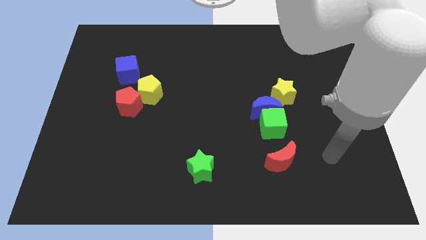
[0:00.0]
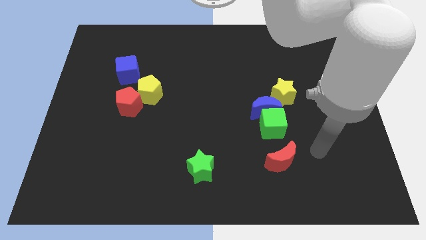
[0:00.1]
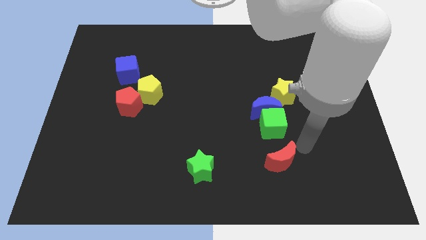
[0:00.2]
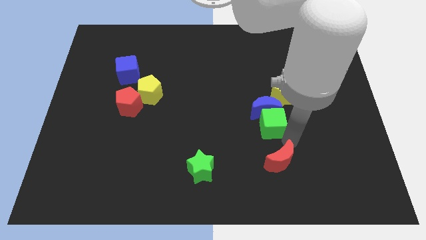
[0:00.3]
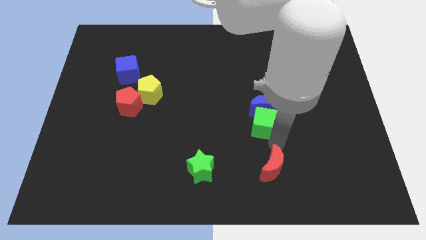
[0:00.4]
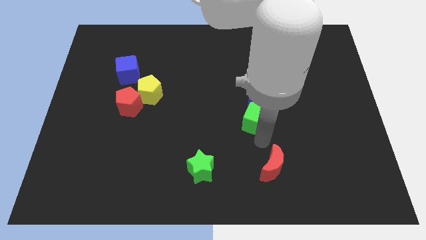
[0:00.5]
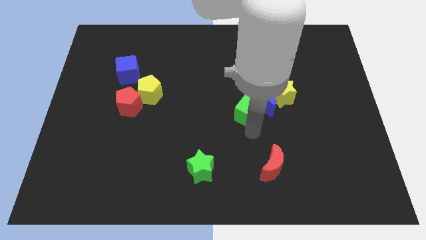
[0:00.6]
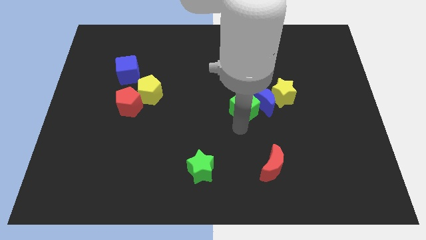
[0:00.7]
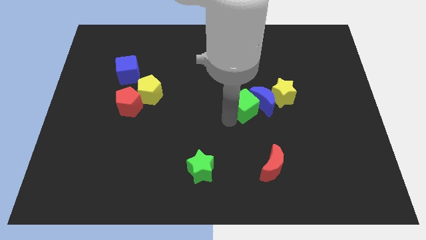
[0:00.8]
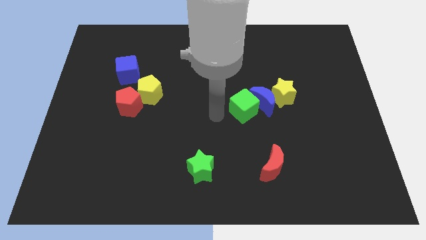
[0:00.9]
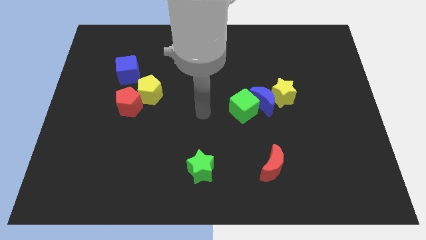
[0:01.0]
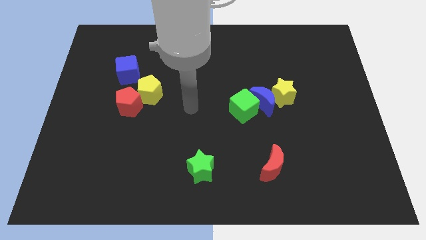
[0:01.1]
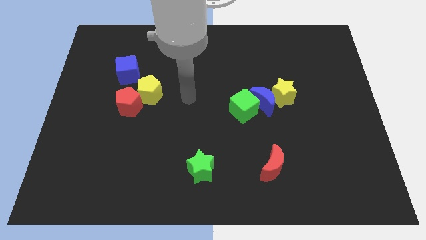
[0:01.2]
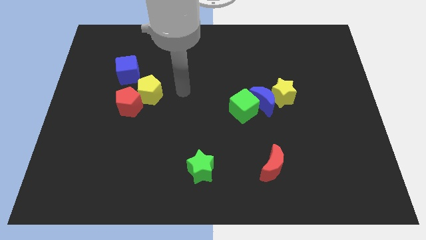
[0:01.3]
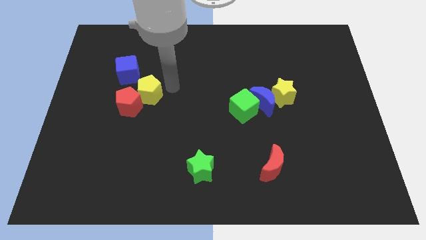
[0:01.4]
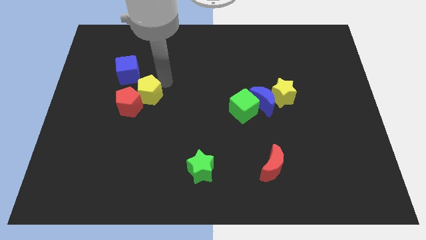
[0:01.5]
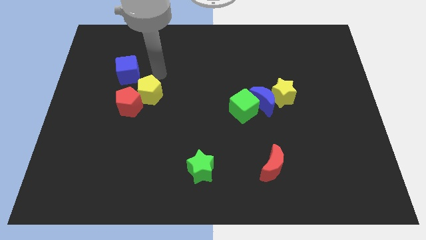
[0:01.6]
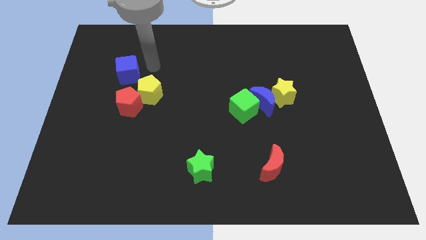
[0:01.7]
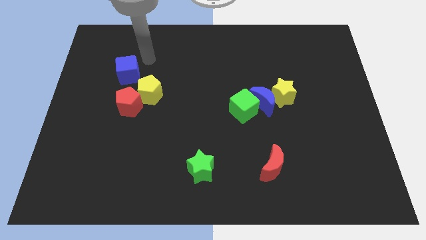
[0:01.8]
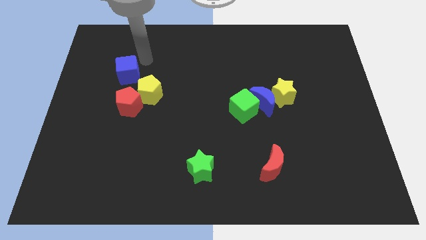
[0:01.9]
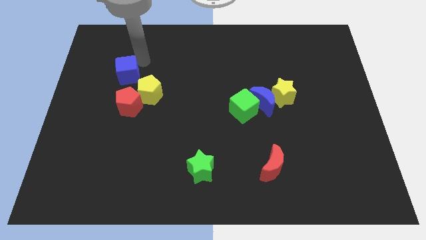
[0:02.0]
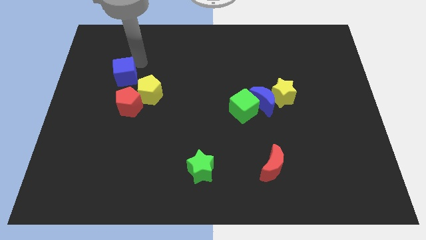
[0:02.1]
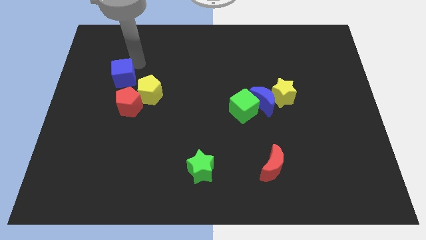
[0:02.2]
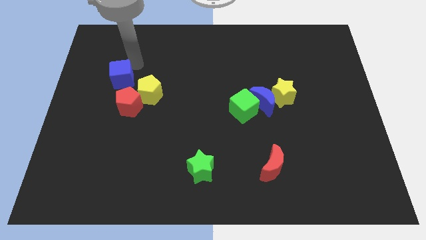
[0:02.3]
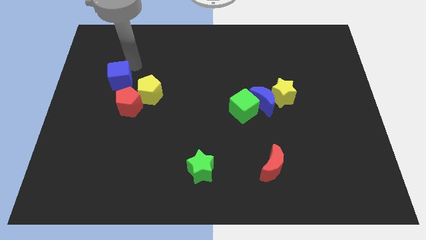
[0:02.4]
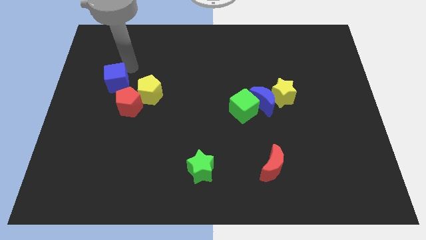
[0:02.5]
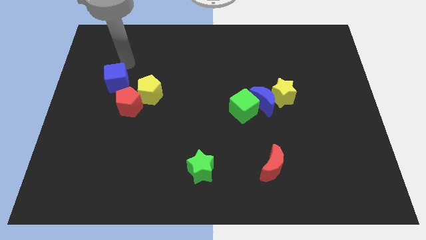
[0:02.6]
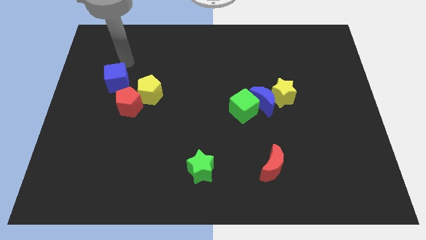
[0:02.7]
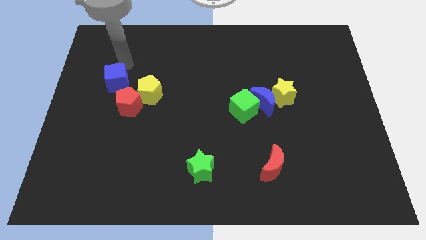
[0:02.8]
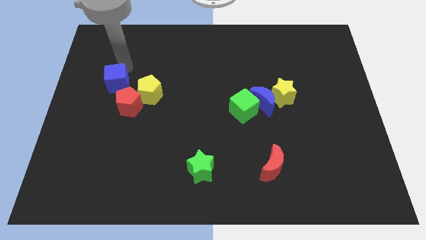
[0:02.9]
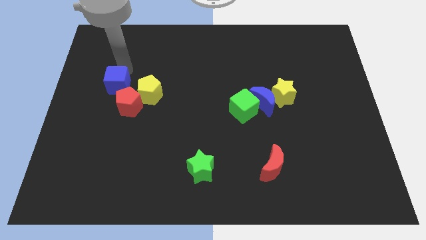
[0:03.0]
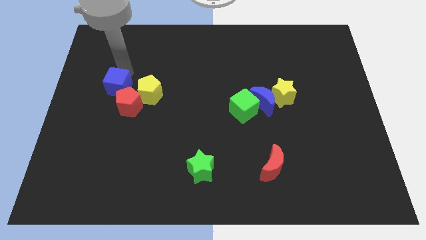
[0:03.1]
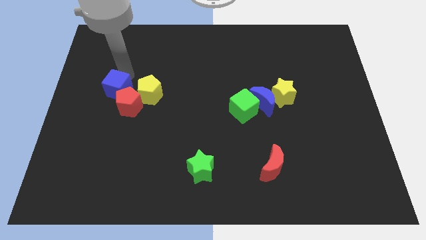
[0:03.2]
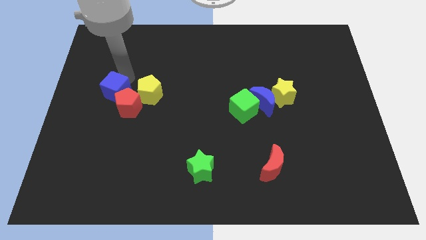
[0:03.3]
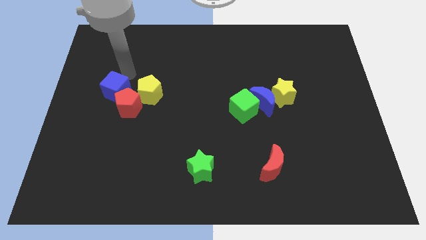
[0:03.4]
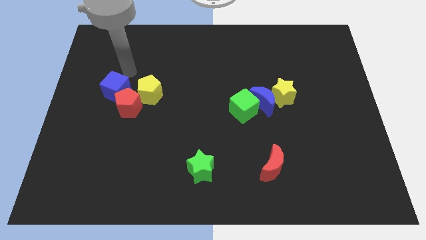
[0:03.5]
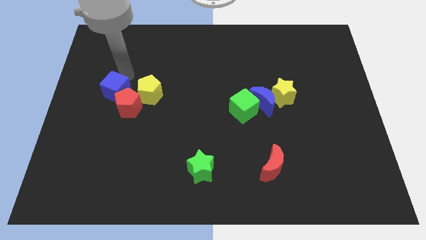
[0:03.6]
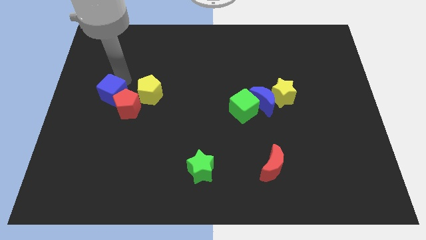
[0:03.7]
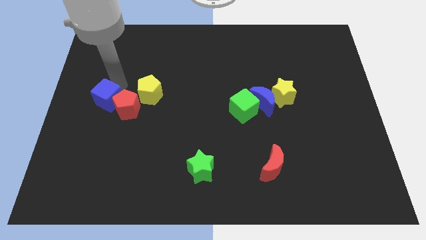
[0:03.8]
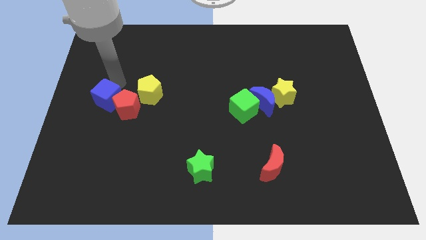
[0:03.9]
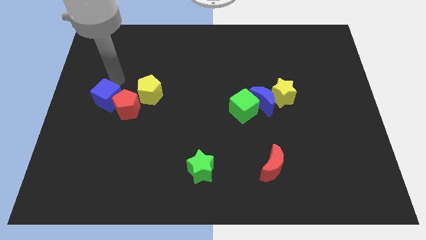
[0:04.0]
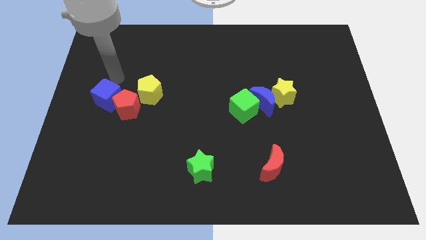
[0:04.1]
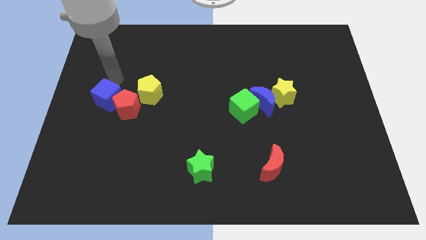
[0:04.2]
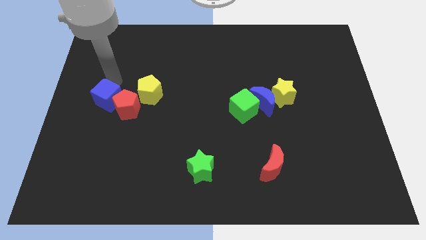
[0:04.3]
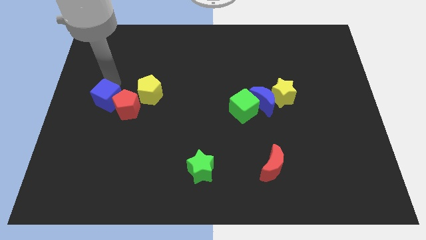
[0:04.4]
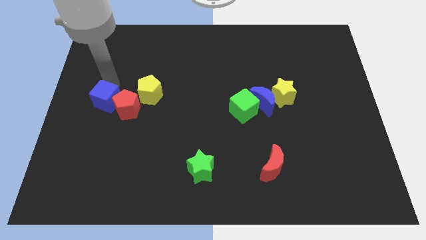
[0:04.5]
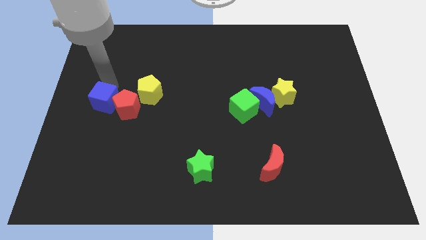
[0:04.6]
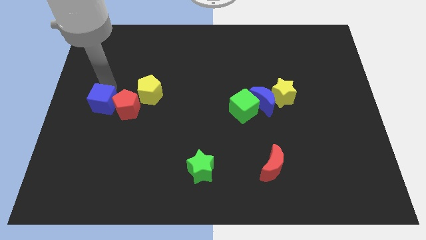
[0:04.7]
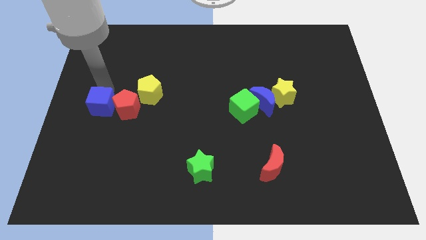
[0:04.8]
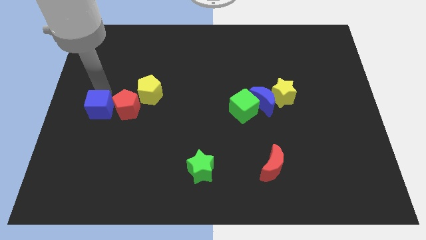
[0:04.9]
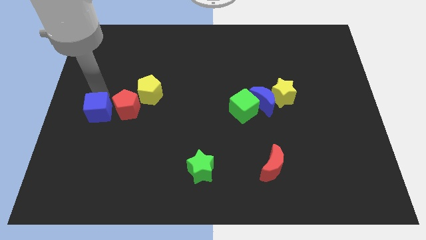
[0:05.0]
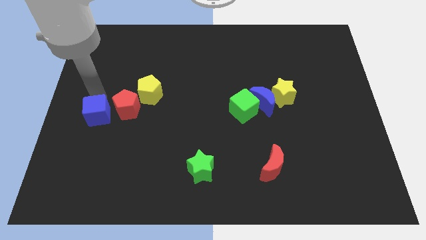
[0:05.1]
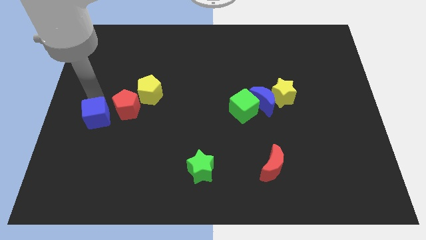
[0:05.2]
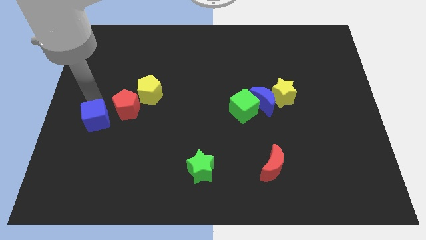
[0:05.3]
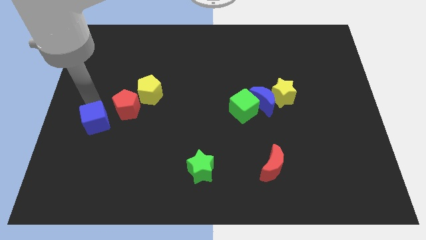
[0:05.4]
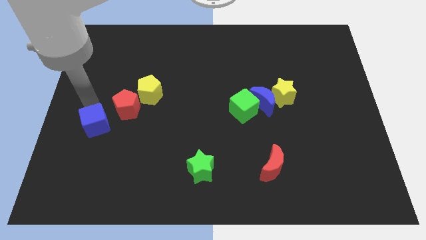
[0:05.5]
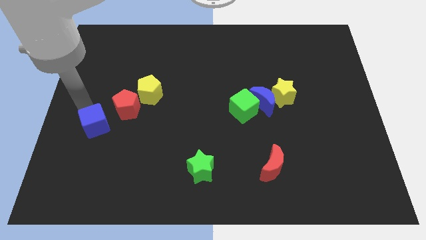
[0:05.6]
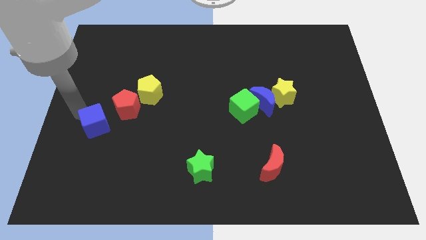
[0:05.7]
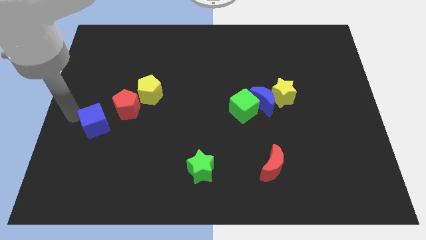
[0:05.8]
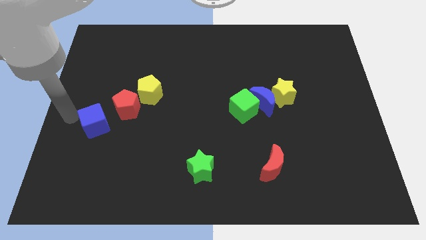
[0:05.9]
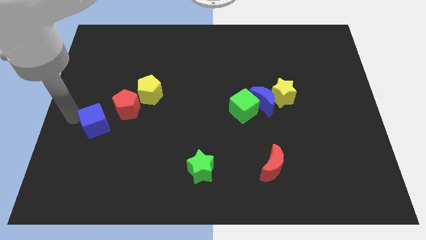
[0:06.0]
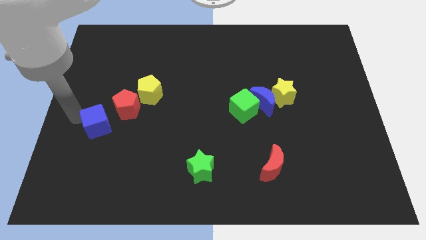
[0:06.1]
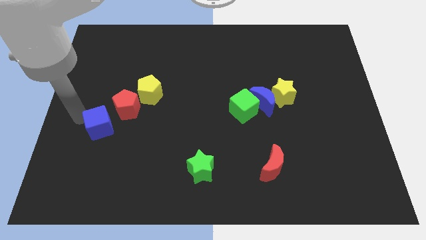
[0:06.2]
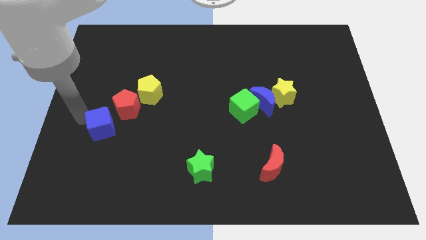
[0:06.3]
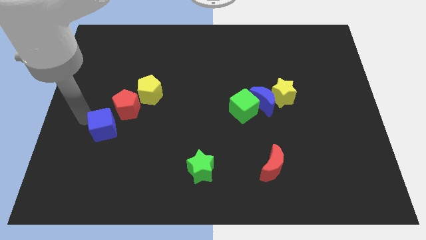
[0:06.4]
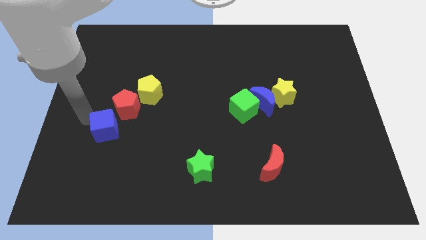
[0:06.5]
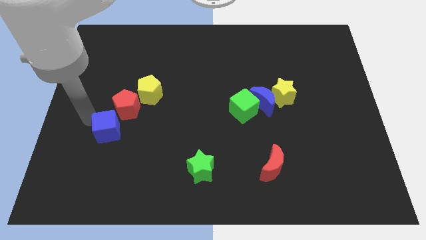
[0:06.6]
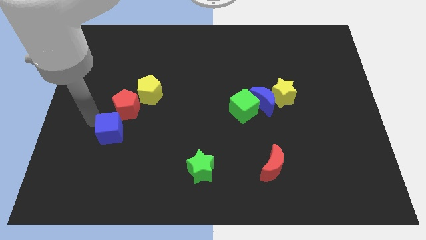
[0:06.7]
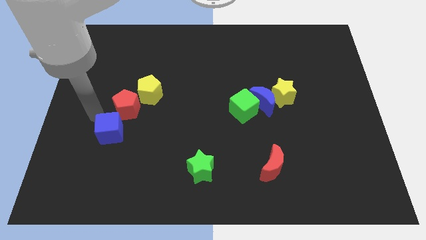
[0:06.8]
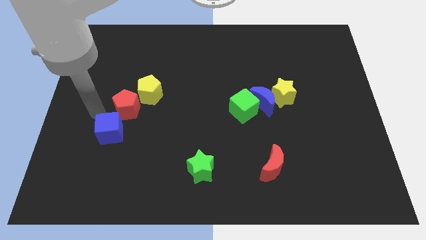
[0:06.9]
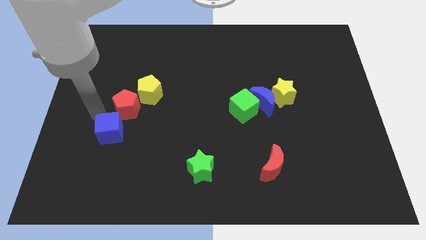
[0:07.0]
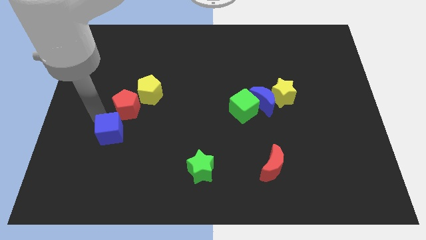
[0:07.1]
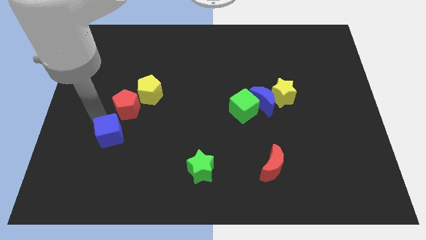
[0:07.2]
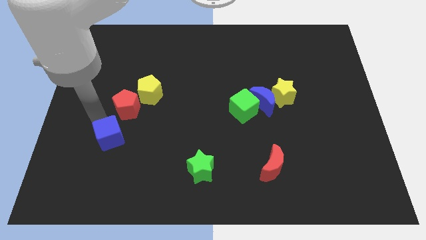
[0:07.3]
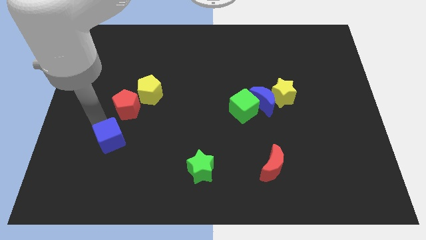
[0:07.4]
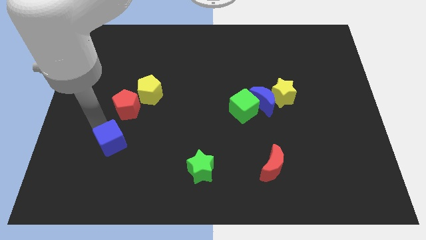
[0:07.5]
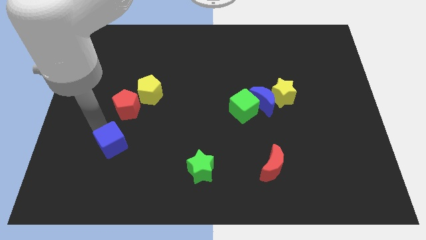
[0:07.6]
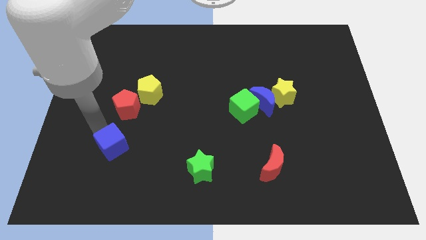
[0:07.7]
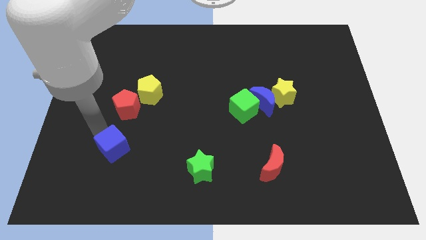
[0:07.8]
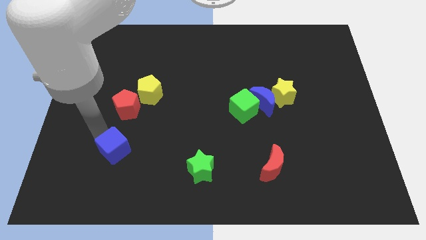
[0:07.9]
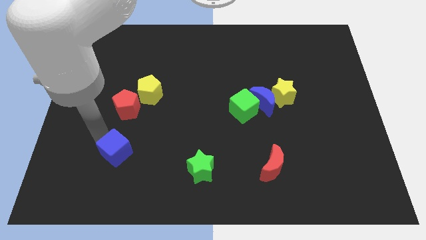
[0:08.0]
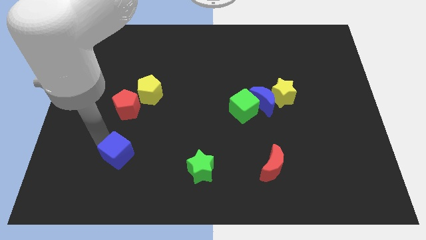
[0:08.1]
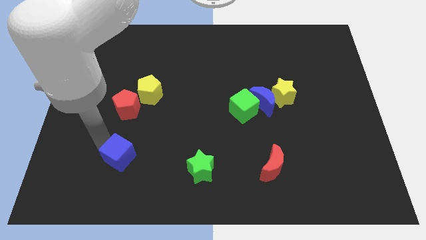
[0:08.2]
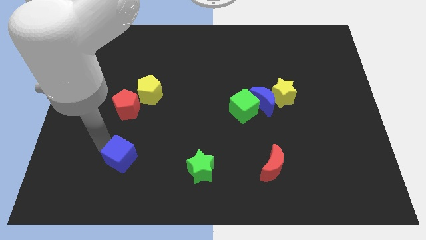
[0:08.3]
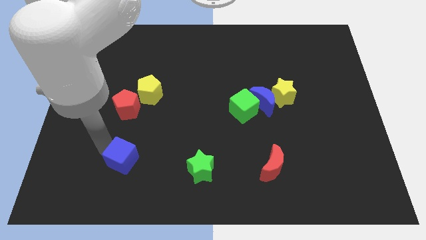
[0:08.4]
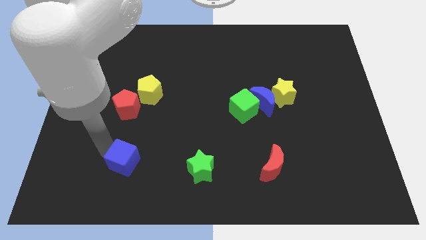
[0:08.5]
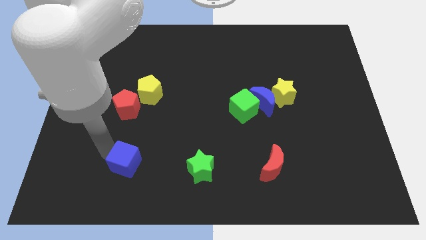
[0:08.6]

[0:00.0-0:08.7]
push the blue cube to the left side of the green star
